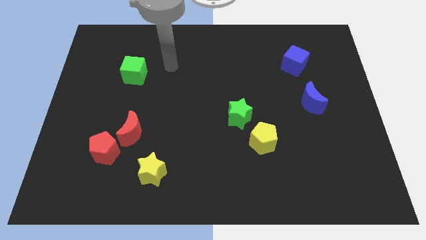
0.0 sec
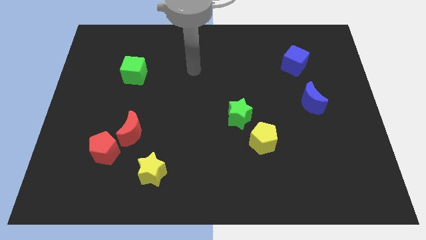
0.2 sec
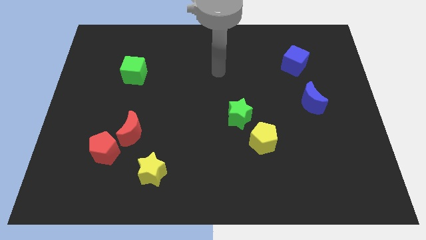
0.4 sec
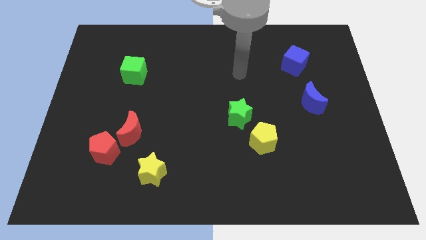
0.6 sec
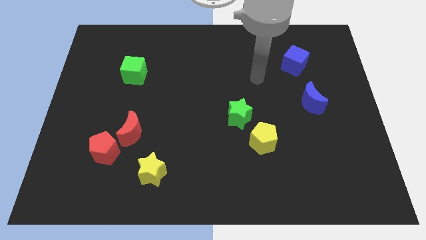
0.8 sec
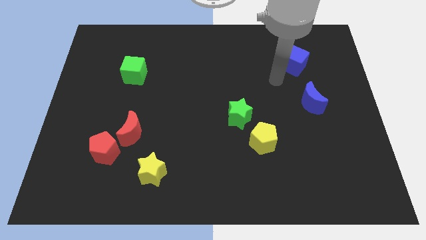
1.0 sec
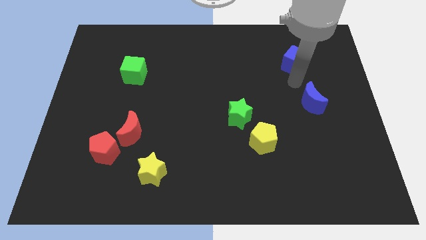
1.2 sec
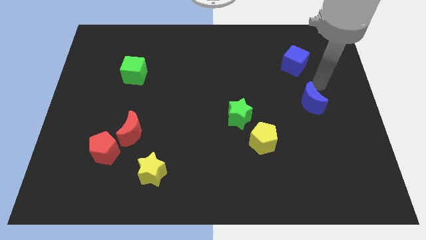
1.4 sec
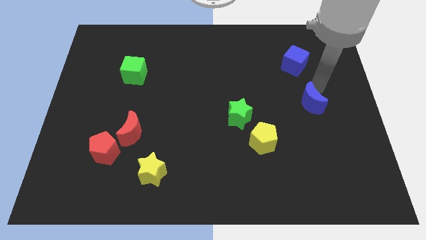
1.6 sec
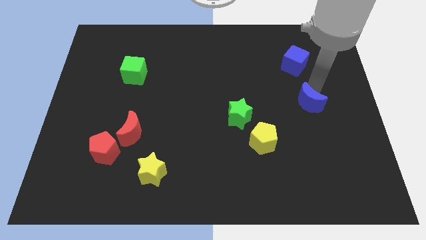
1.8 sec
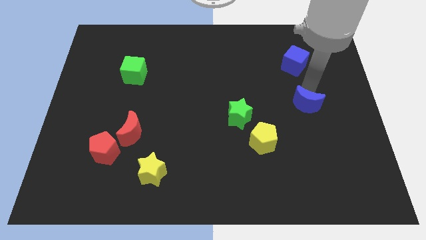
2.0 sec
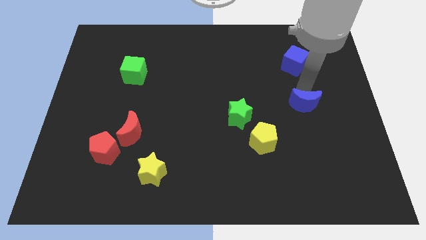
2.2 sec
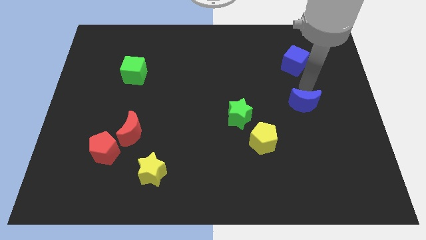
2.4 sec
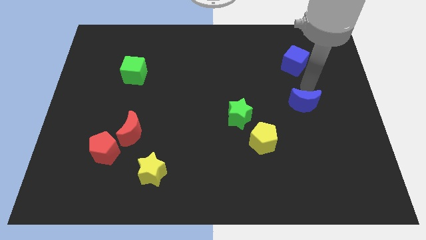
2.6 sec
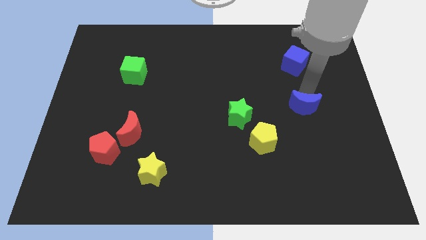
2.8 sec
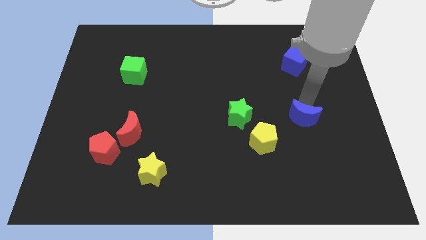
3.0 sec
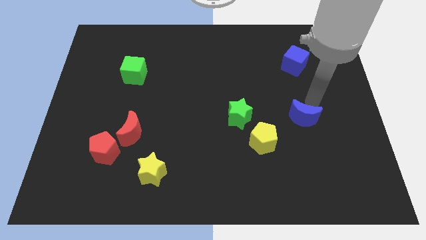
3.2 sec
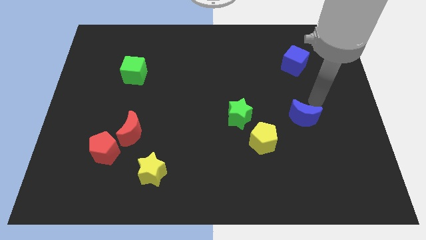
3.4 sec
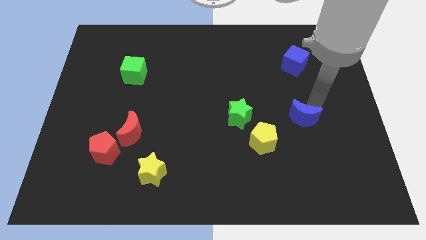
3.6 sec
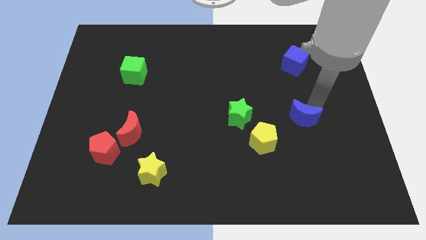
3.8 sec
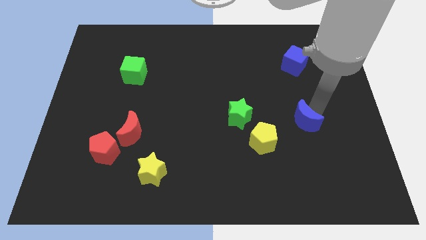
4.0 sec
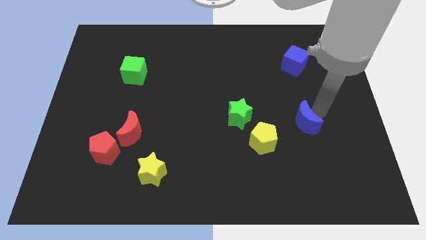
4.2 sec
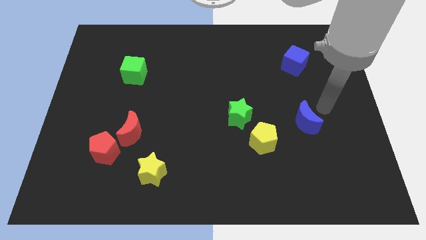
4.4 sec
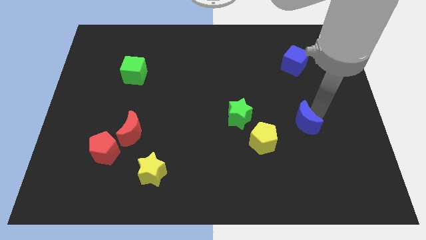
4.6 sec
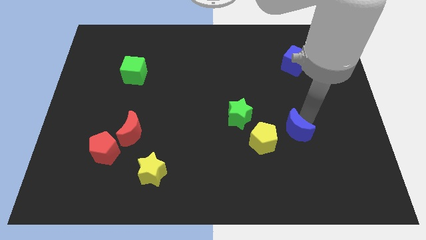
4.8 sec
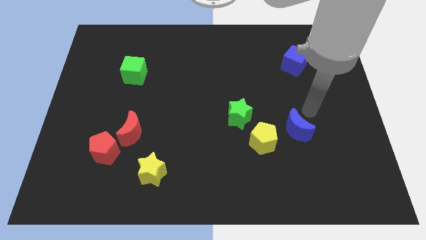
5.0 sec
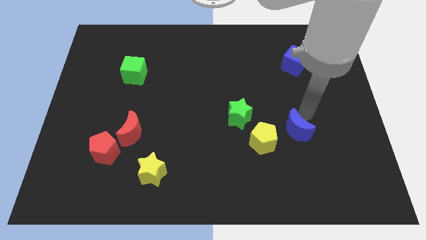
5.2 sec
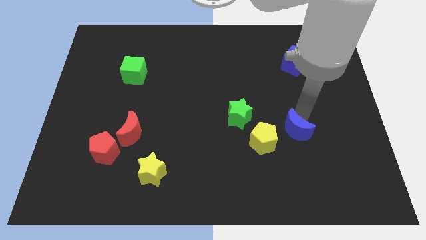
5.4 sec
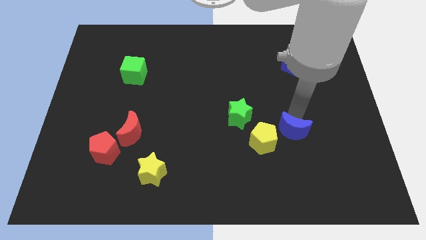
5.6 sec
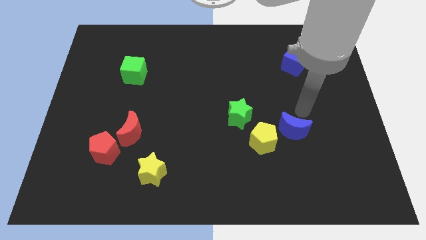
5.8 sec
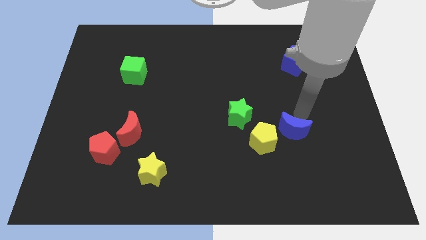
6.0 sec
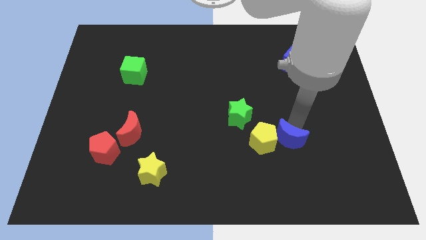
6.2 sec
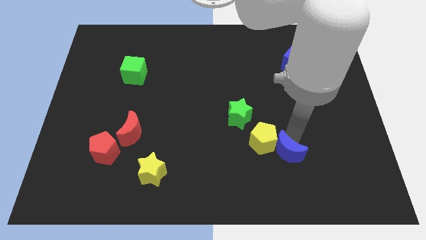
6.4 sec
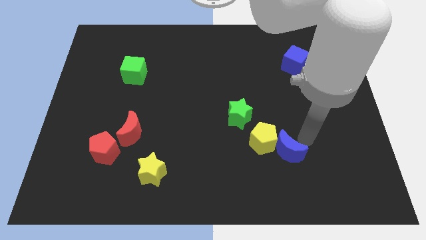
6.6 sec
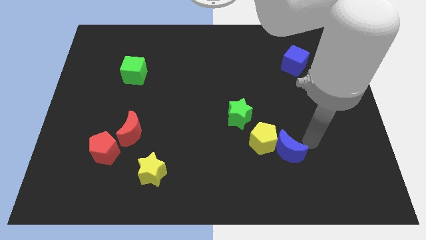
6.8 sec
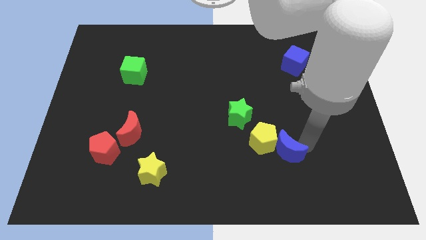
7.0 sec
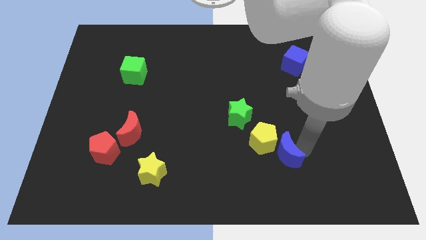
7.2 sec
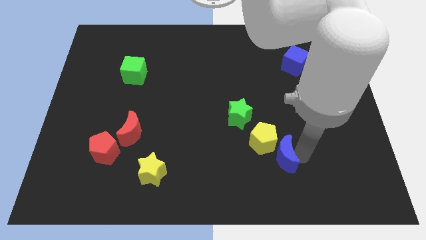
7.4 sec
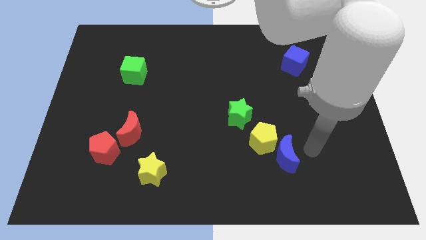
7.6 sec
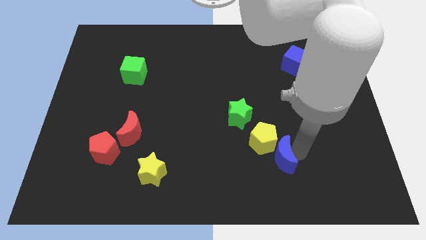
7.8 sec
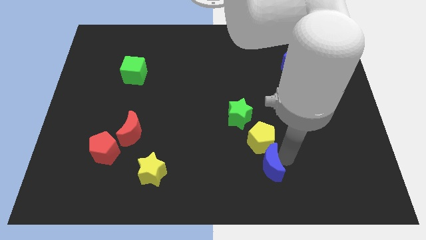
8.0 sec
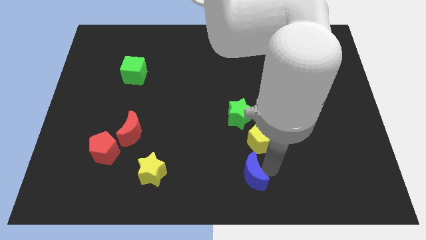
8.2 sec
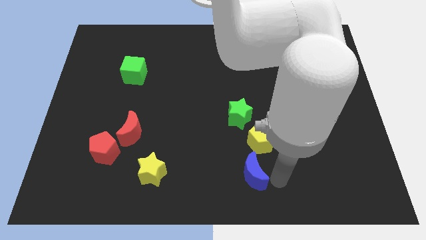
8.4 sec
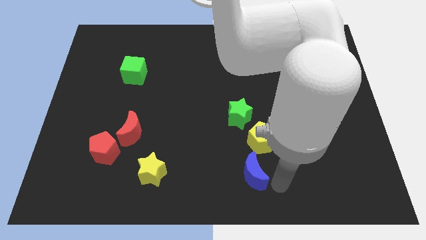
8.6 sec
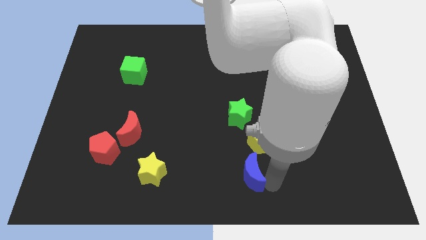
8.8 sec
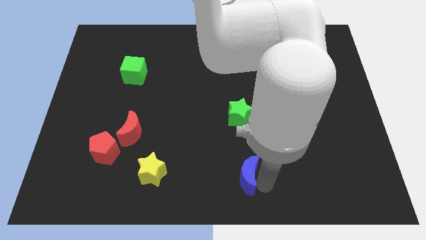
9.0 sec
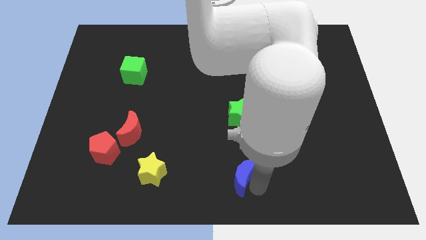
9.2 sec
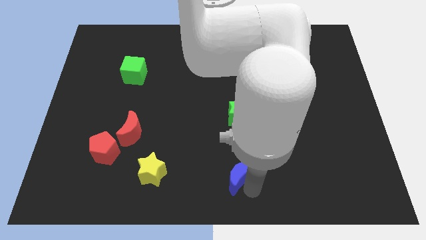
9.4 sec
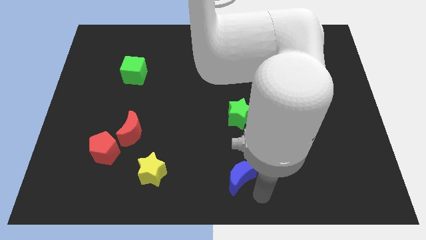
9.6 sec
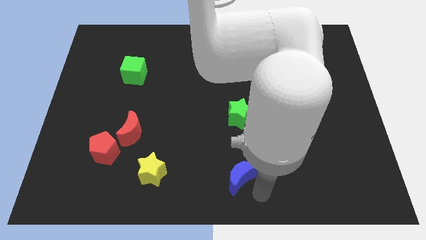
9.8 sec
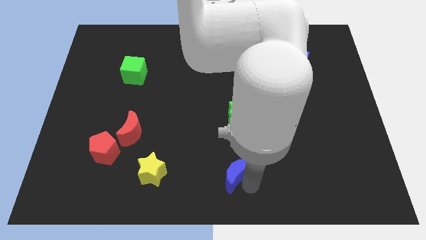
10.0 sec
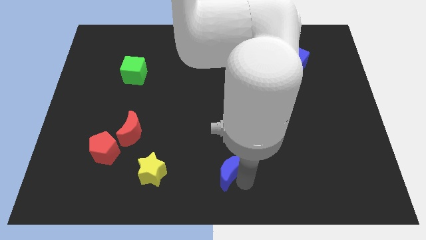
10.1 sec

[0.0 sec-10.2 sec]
put the blue moon right of the yellow star

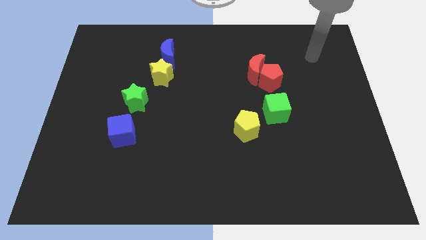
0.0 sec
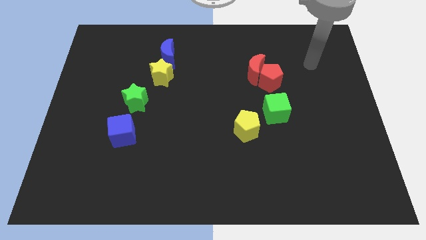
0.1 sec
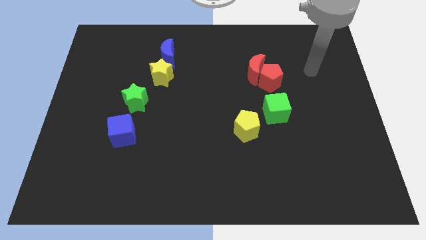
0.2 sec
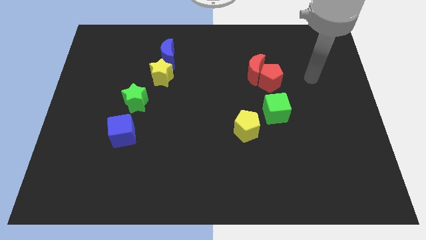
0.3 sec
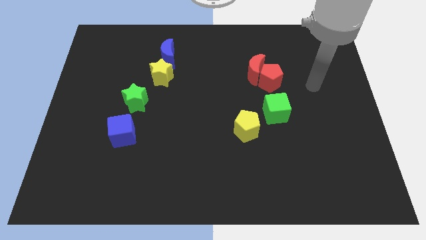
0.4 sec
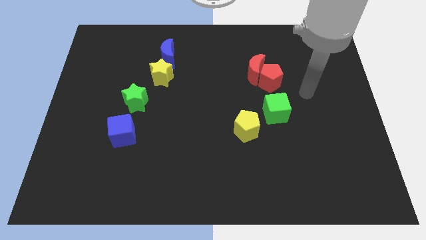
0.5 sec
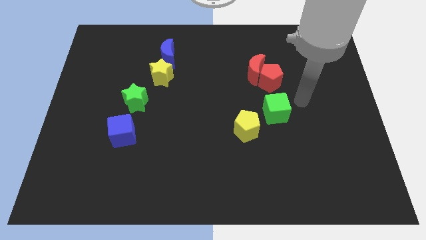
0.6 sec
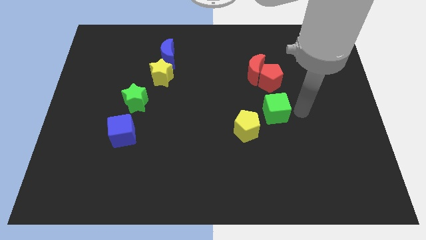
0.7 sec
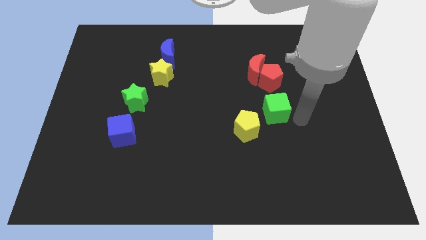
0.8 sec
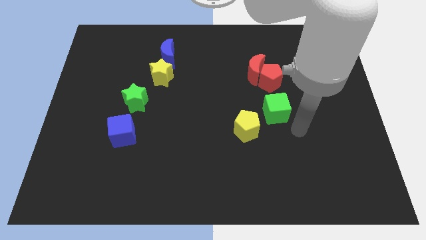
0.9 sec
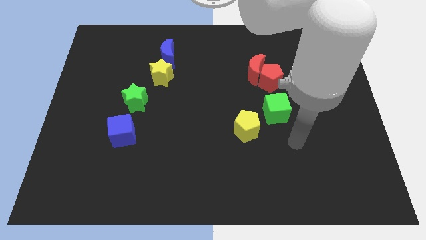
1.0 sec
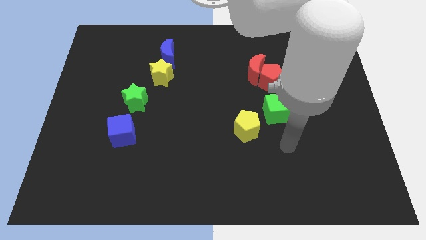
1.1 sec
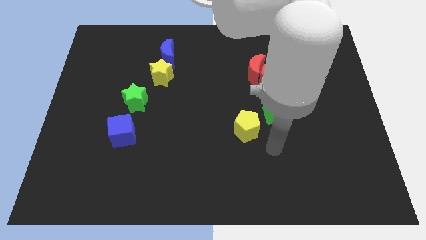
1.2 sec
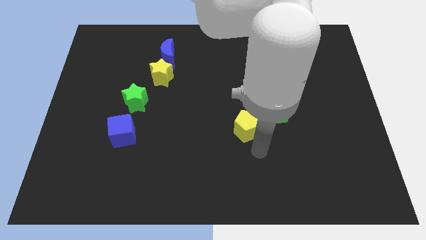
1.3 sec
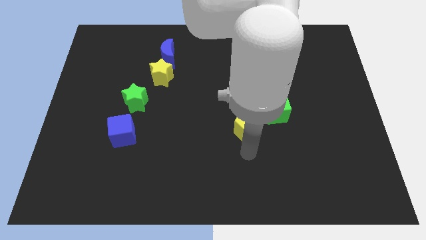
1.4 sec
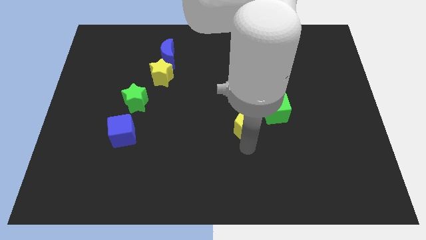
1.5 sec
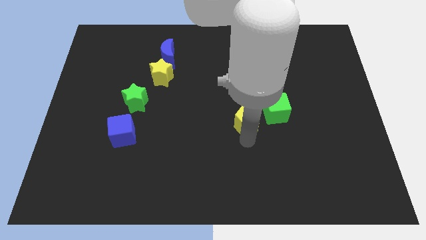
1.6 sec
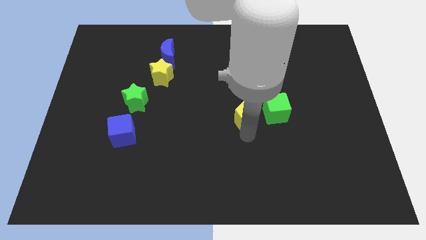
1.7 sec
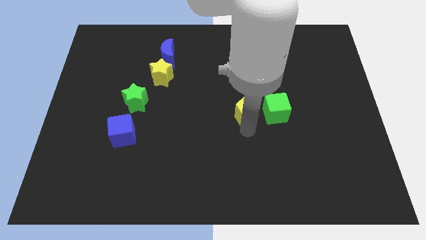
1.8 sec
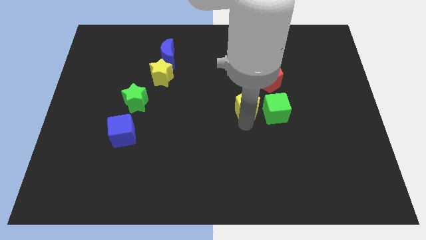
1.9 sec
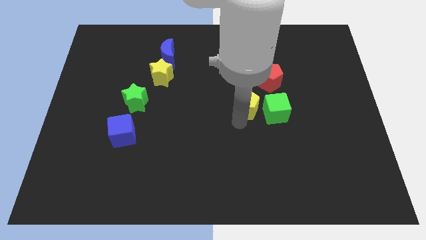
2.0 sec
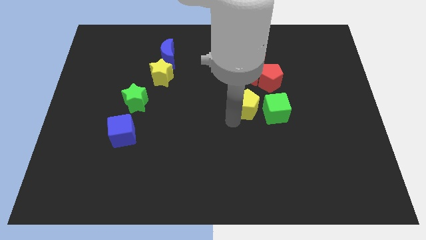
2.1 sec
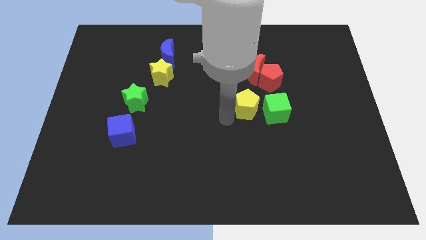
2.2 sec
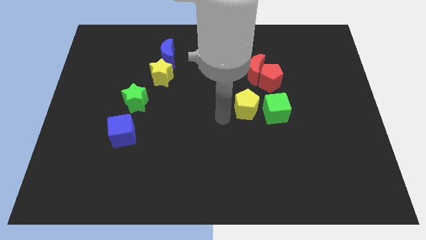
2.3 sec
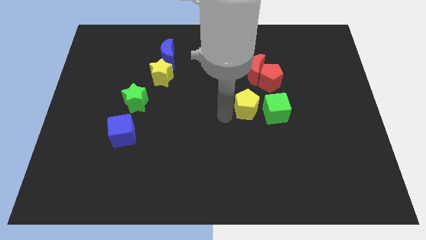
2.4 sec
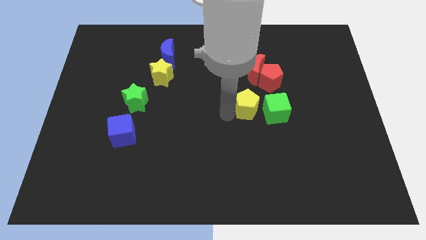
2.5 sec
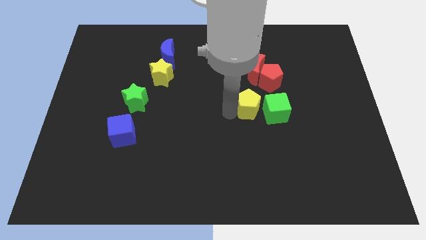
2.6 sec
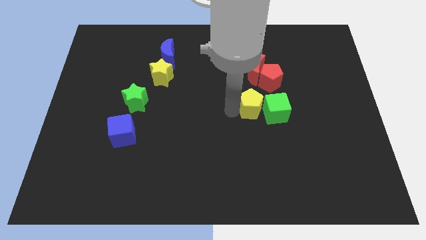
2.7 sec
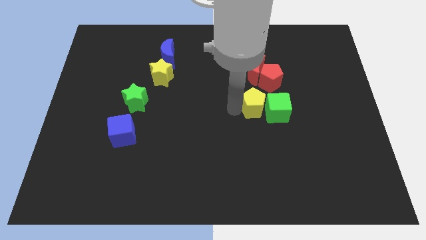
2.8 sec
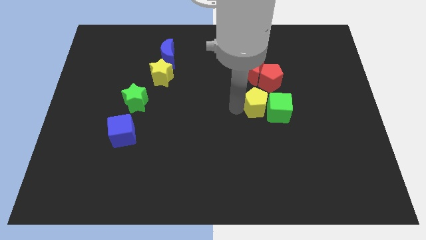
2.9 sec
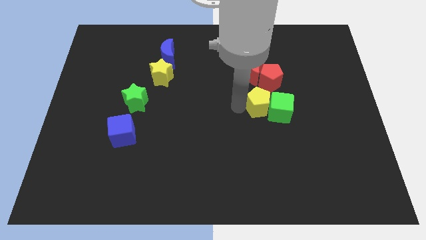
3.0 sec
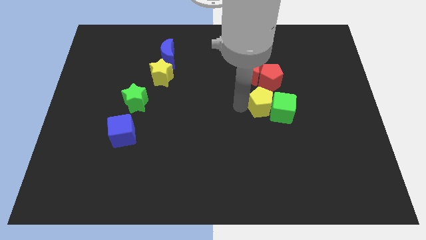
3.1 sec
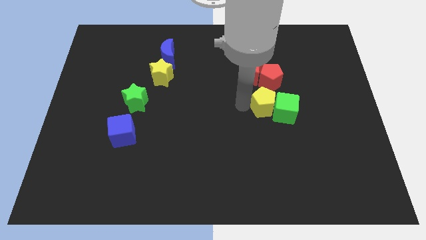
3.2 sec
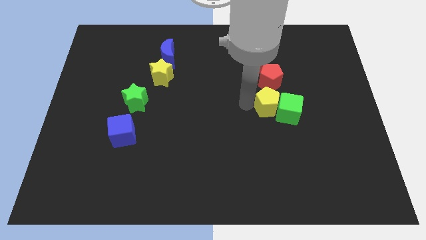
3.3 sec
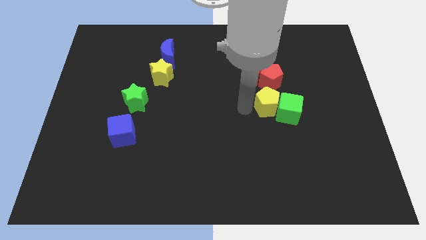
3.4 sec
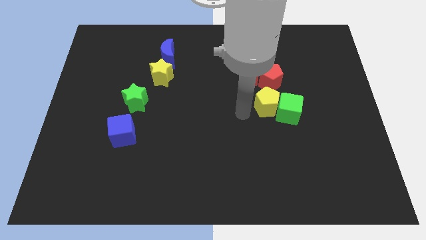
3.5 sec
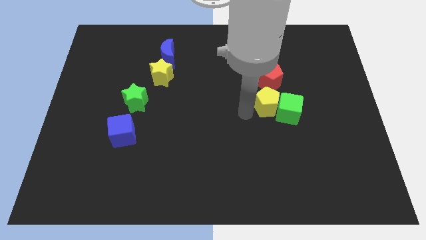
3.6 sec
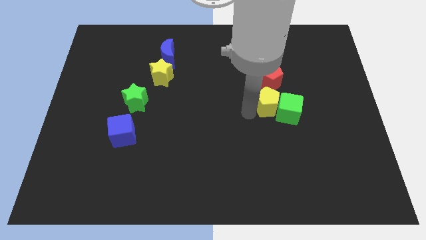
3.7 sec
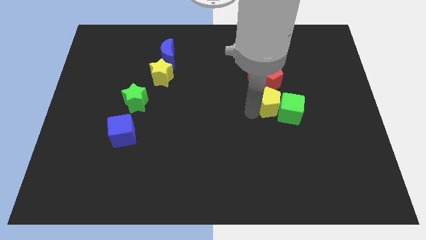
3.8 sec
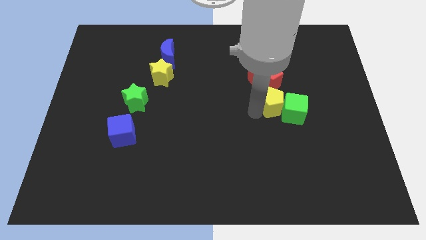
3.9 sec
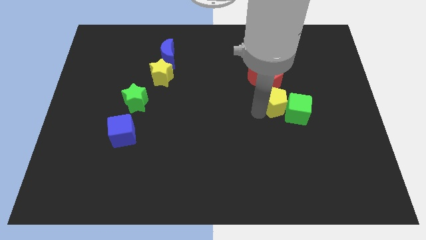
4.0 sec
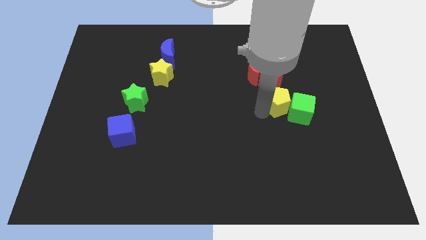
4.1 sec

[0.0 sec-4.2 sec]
put the yellow pentagon diagonally down and to the right of the red pentagon
